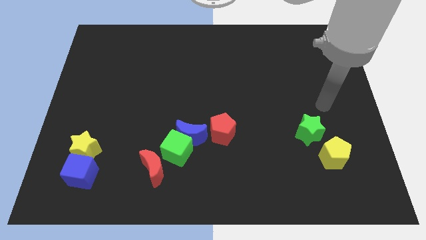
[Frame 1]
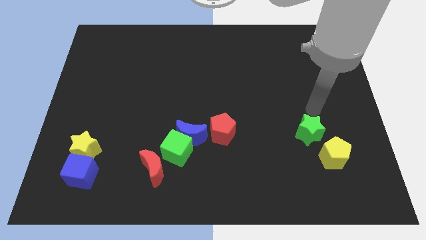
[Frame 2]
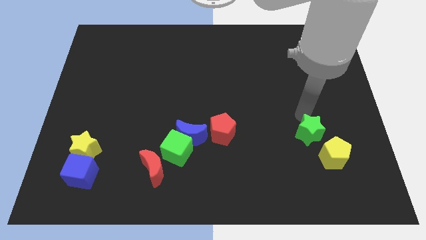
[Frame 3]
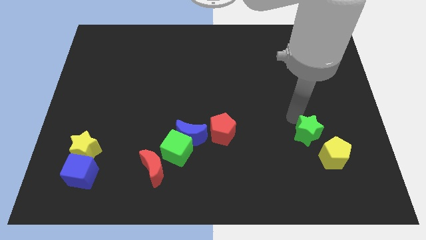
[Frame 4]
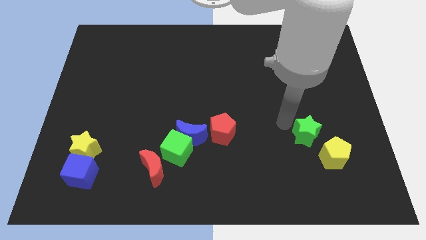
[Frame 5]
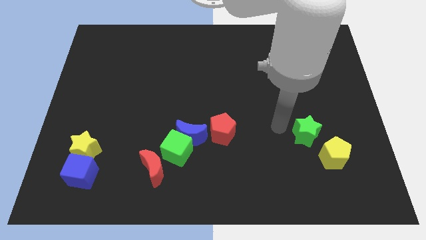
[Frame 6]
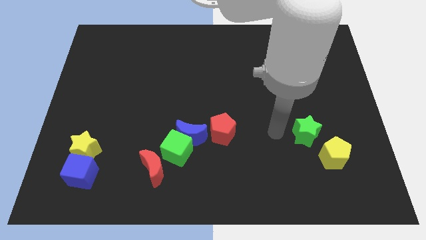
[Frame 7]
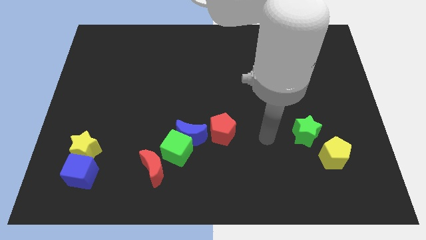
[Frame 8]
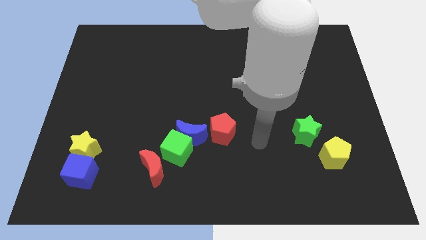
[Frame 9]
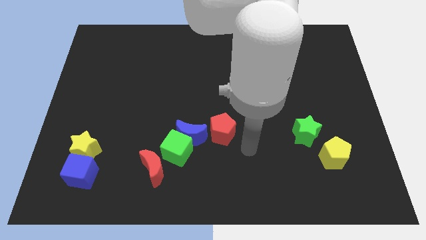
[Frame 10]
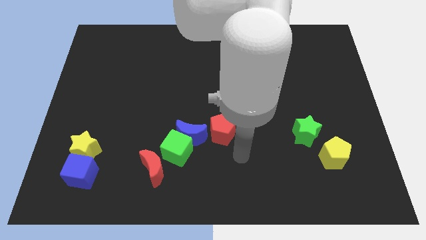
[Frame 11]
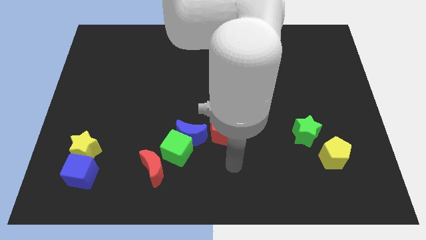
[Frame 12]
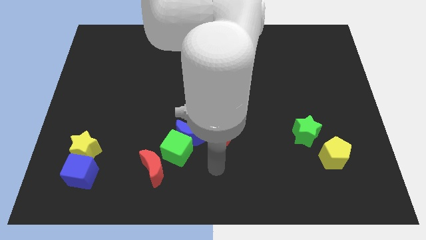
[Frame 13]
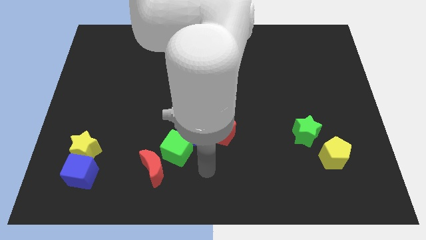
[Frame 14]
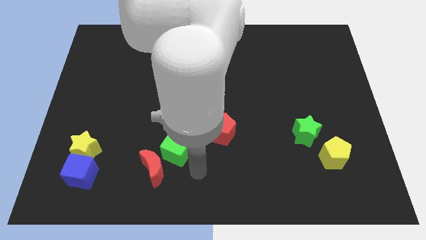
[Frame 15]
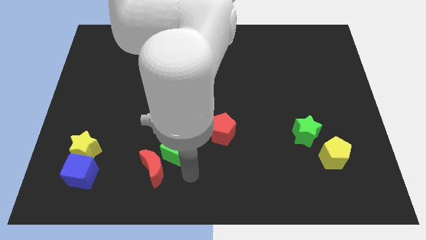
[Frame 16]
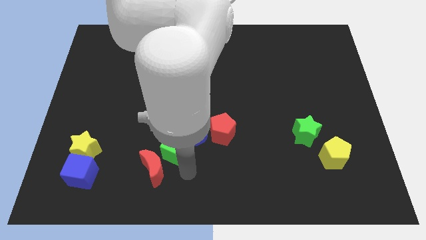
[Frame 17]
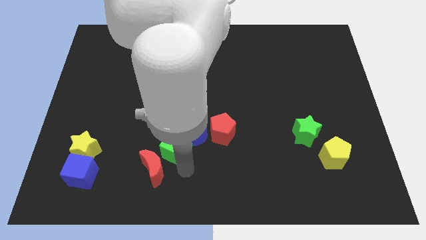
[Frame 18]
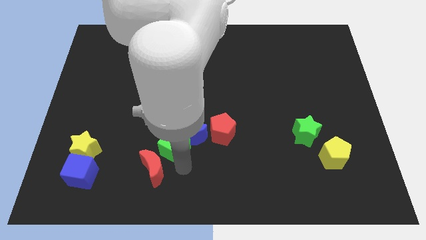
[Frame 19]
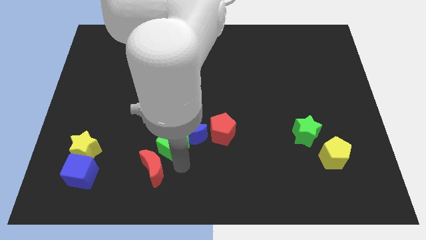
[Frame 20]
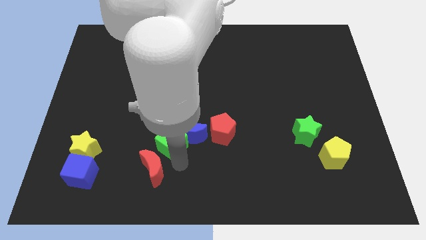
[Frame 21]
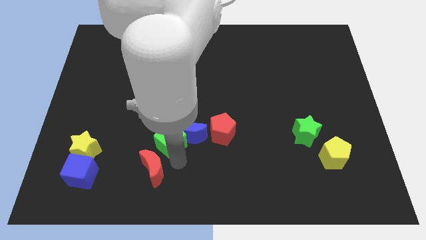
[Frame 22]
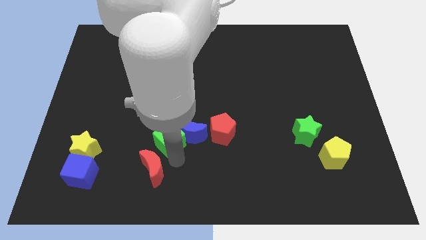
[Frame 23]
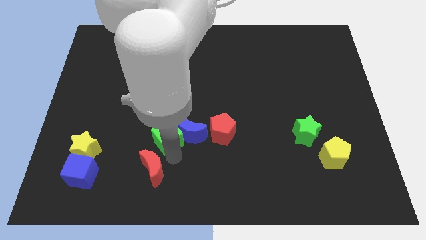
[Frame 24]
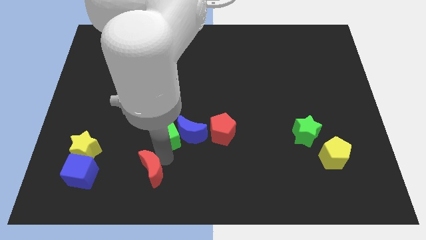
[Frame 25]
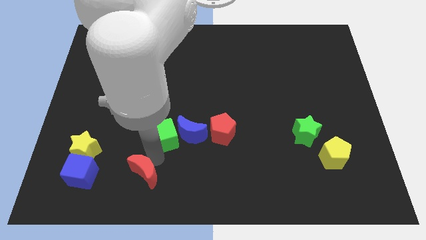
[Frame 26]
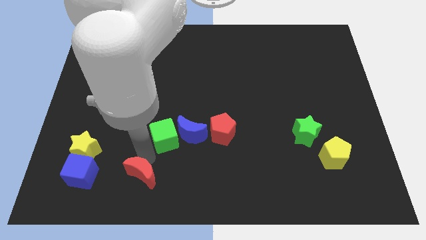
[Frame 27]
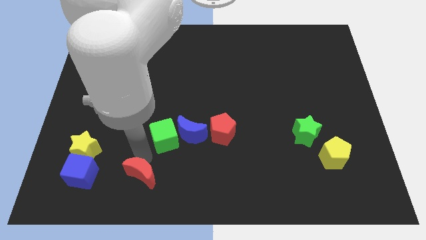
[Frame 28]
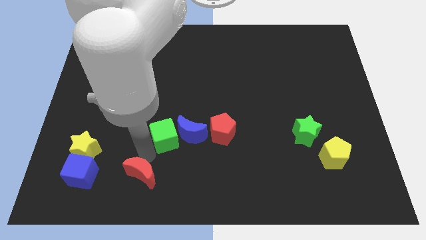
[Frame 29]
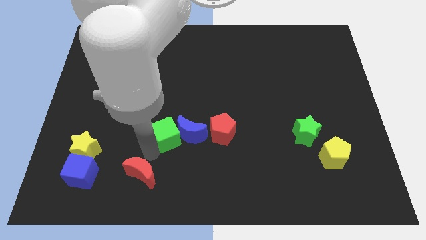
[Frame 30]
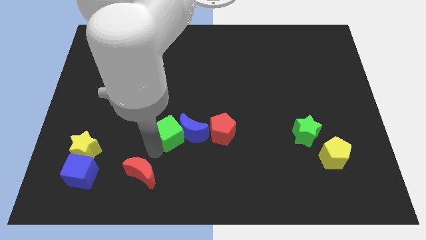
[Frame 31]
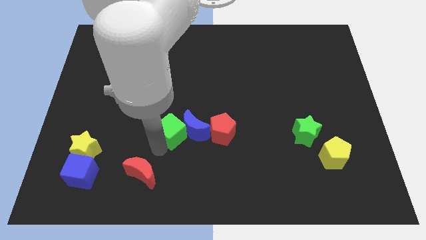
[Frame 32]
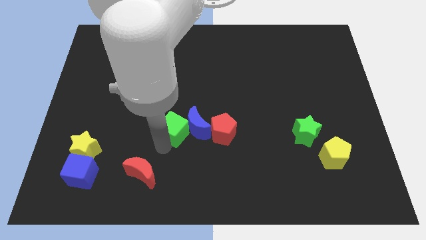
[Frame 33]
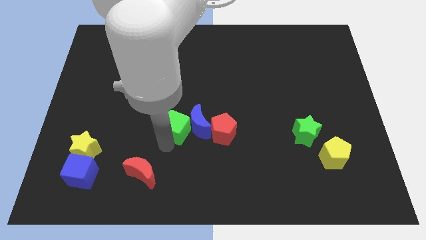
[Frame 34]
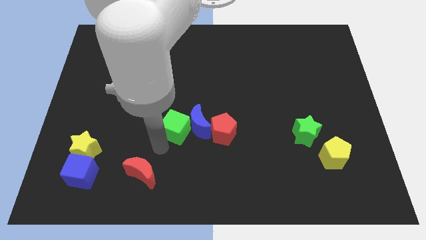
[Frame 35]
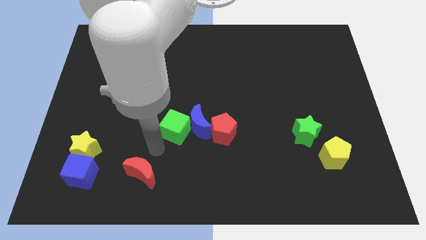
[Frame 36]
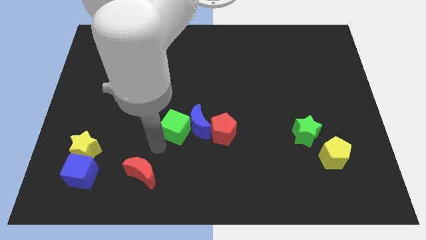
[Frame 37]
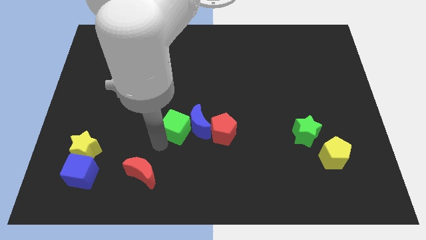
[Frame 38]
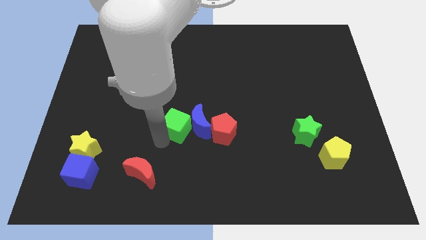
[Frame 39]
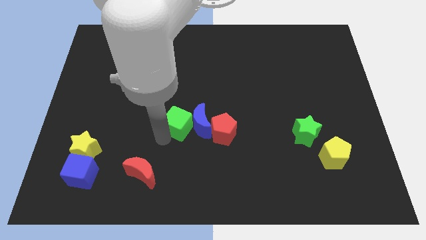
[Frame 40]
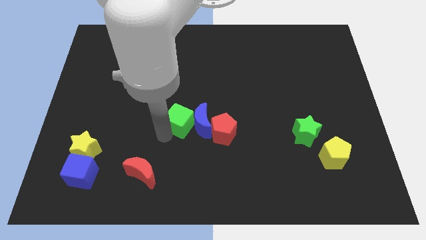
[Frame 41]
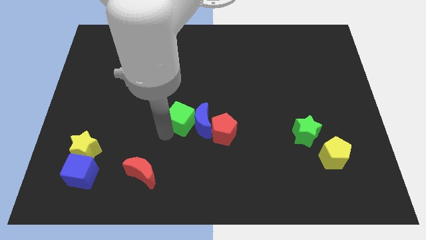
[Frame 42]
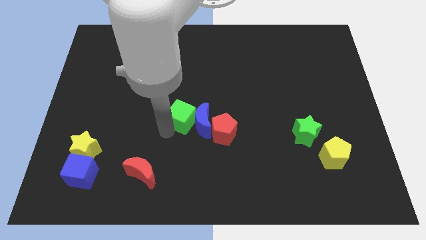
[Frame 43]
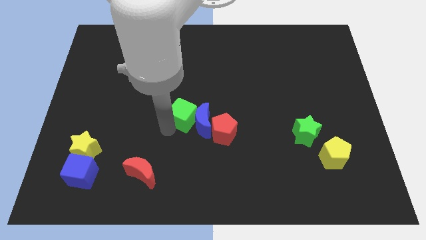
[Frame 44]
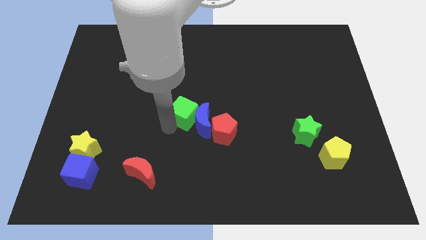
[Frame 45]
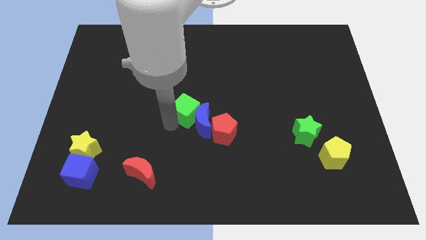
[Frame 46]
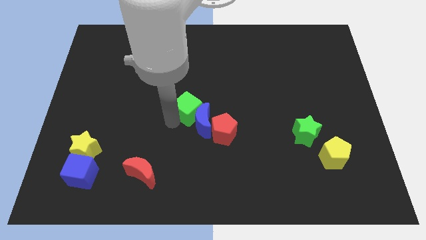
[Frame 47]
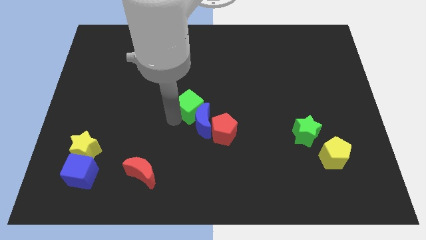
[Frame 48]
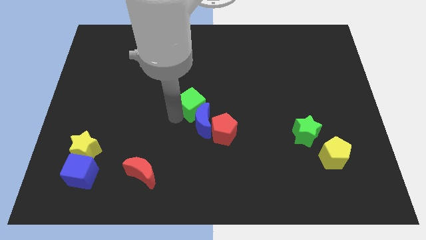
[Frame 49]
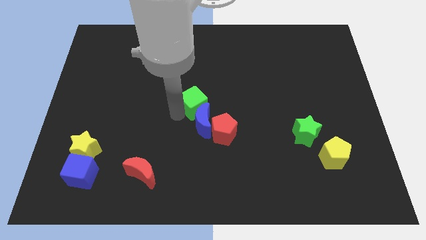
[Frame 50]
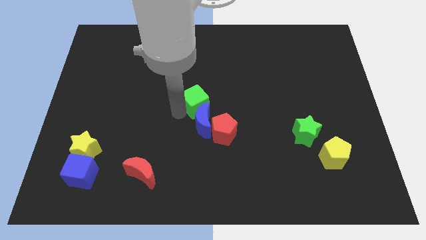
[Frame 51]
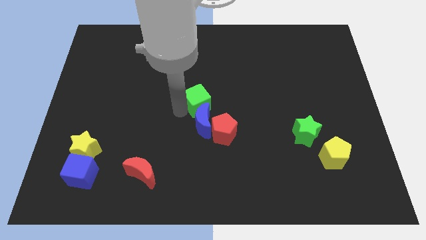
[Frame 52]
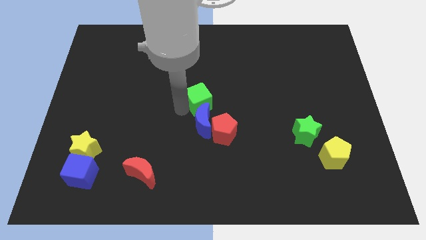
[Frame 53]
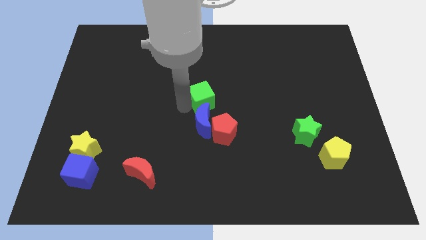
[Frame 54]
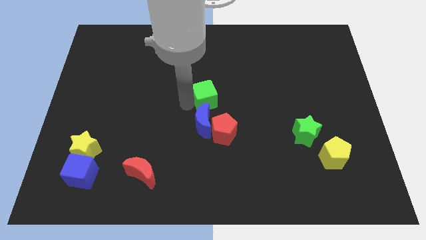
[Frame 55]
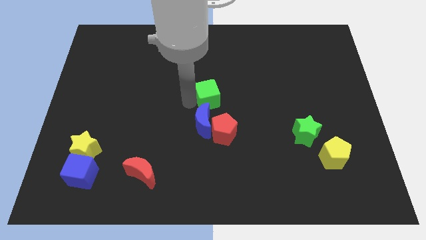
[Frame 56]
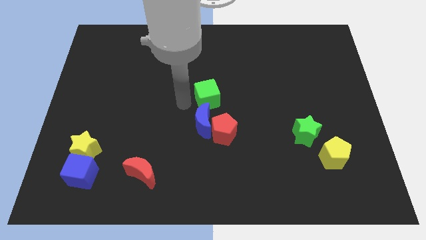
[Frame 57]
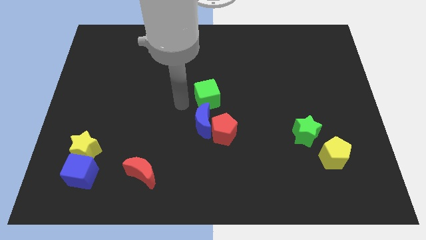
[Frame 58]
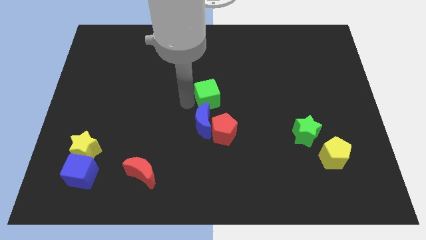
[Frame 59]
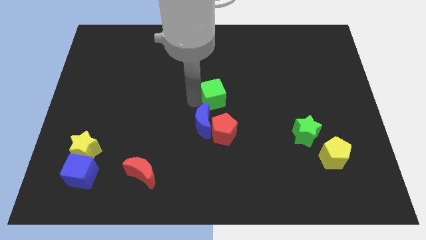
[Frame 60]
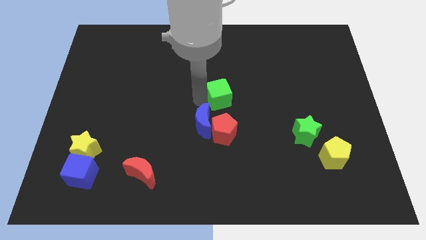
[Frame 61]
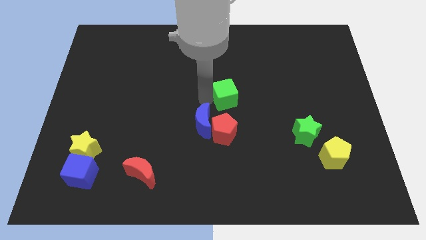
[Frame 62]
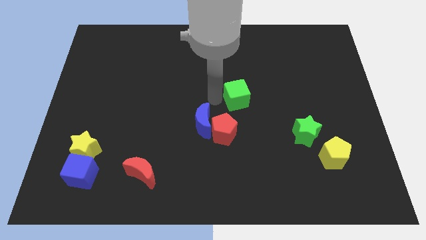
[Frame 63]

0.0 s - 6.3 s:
move the green cube up and to the right diagonally

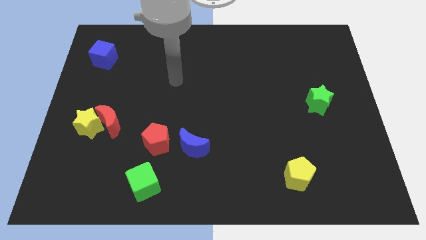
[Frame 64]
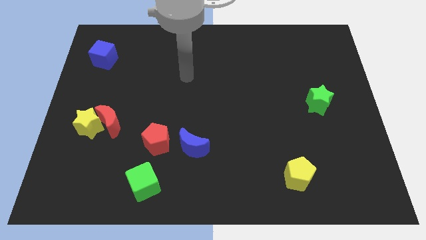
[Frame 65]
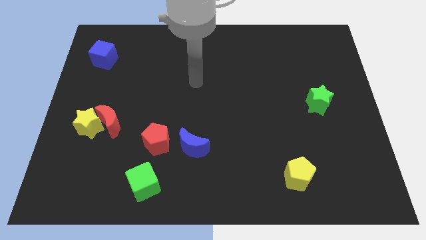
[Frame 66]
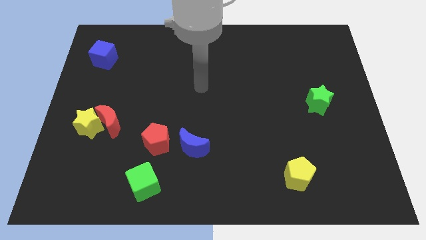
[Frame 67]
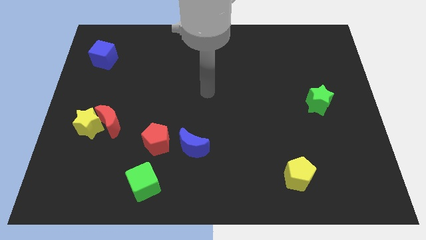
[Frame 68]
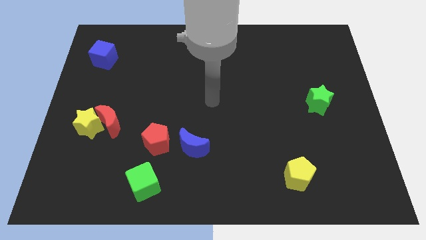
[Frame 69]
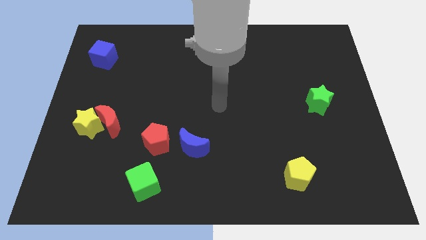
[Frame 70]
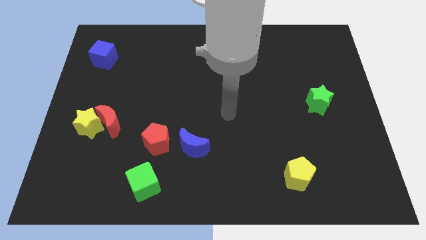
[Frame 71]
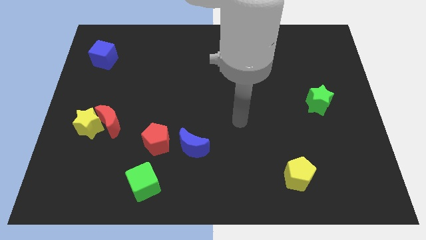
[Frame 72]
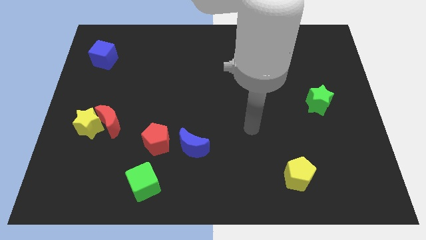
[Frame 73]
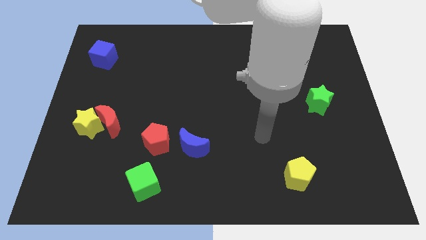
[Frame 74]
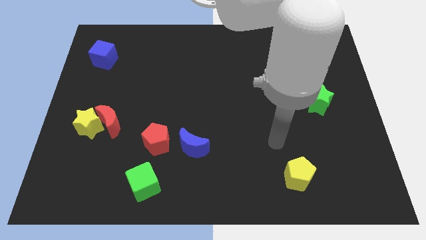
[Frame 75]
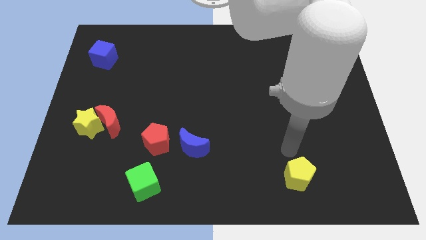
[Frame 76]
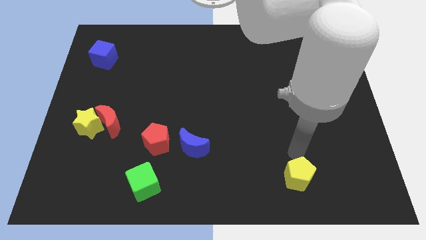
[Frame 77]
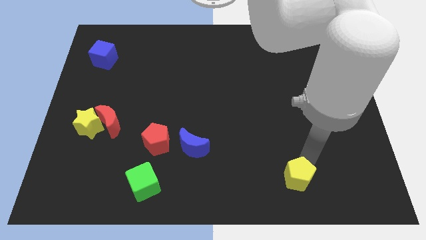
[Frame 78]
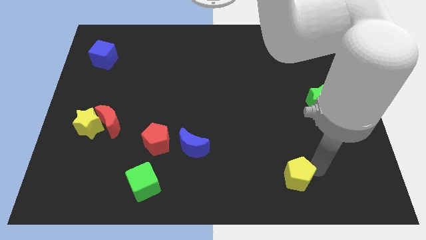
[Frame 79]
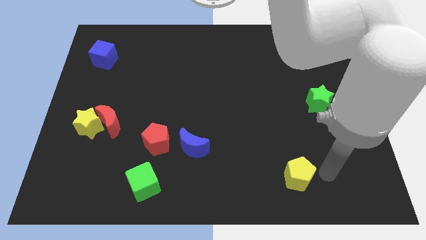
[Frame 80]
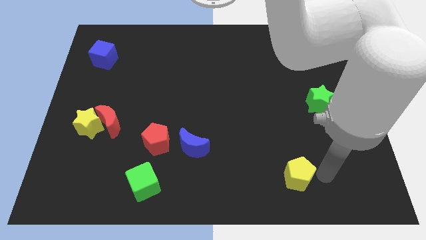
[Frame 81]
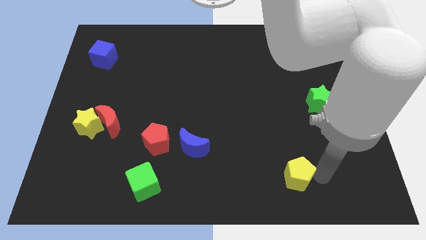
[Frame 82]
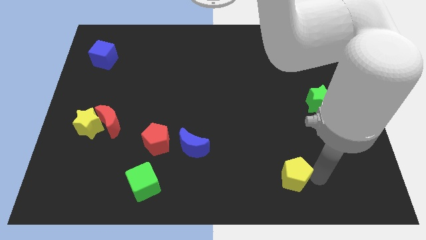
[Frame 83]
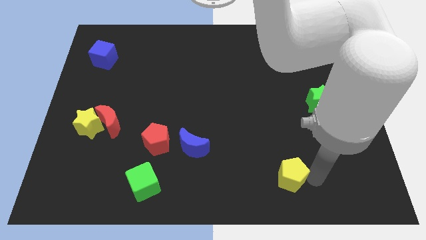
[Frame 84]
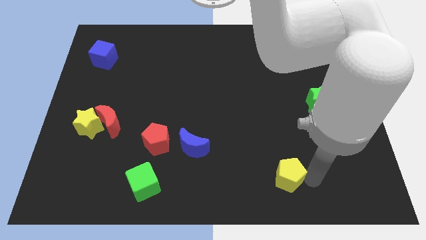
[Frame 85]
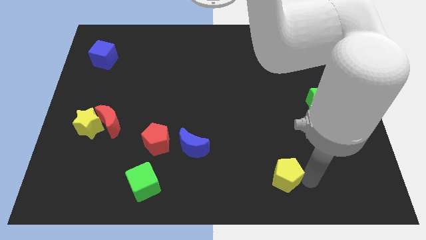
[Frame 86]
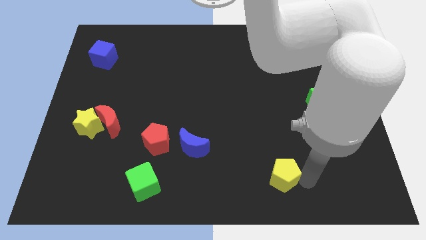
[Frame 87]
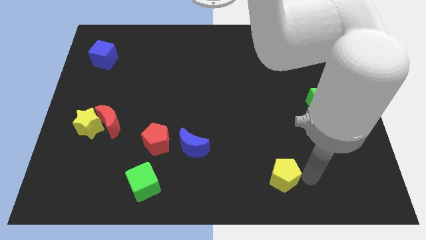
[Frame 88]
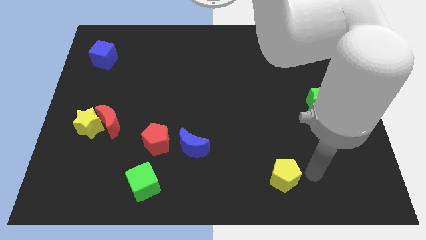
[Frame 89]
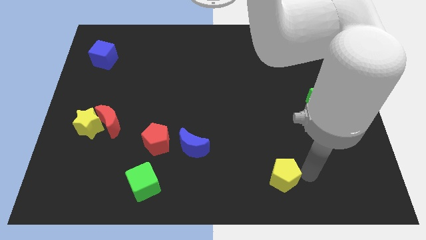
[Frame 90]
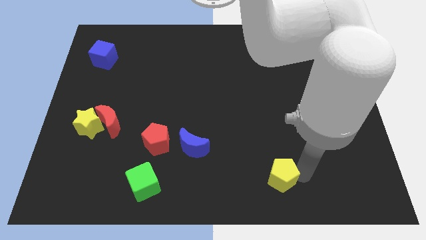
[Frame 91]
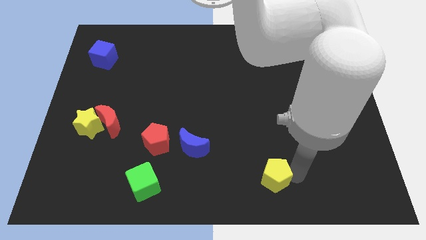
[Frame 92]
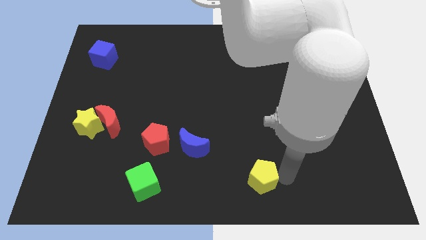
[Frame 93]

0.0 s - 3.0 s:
push the yellow pentagon a little to the left
